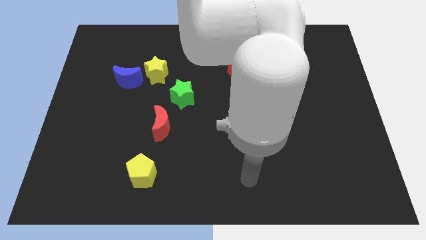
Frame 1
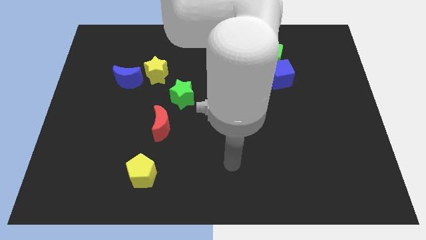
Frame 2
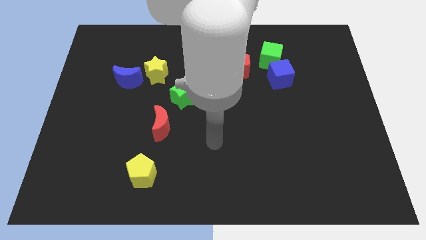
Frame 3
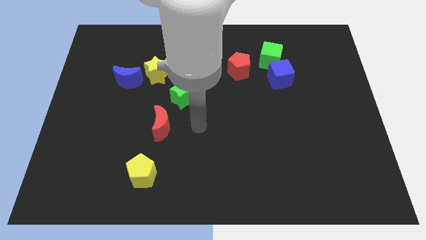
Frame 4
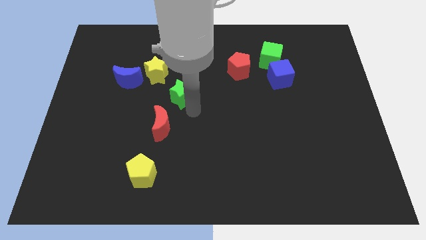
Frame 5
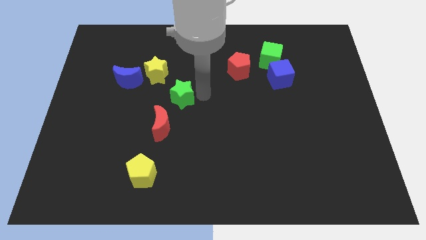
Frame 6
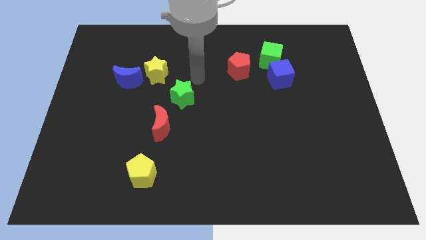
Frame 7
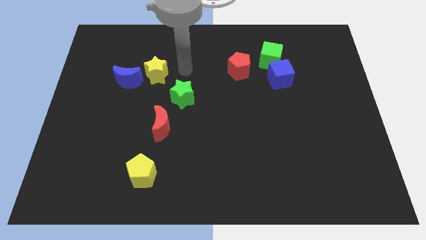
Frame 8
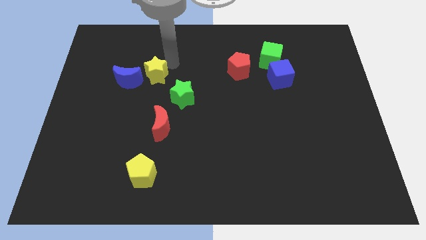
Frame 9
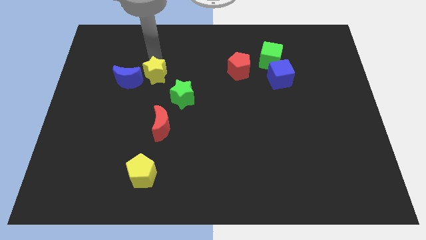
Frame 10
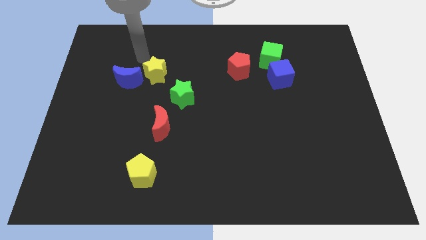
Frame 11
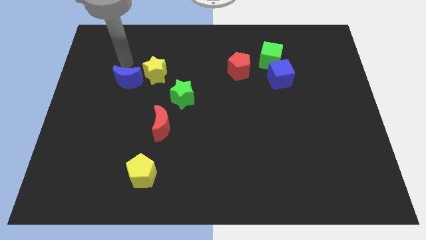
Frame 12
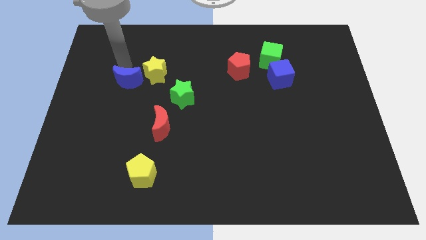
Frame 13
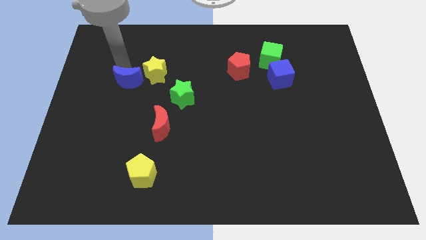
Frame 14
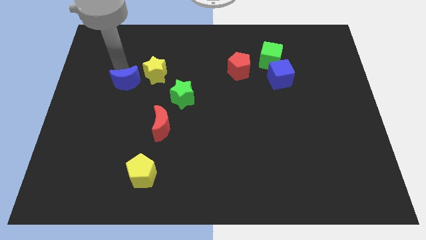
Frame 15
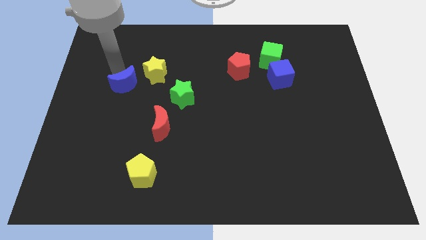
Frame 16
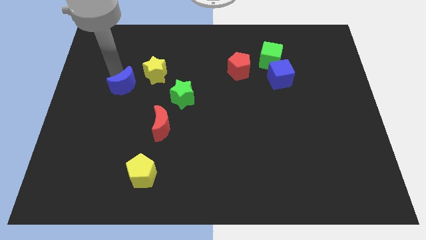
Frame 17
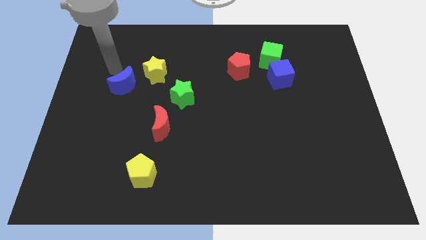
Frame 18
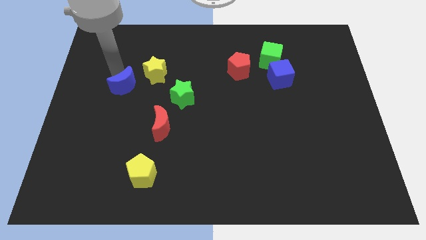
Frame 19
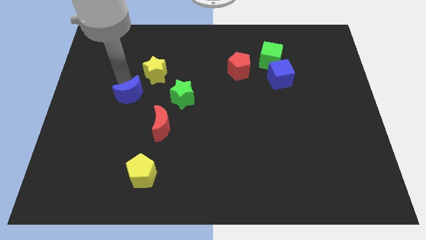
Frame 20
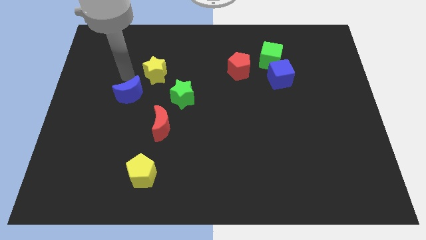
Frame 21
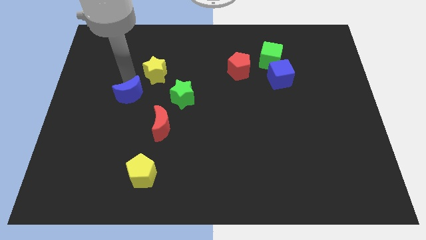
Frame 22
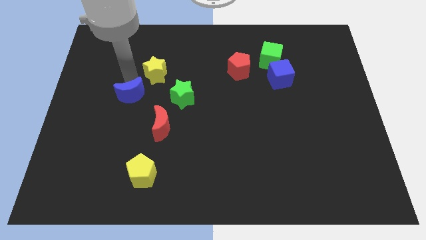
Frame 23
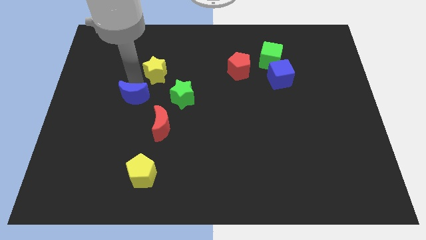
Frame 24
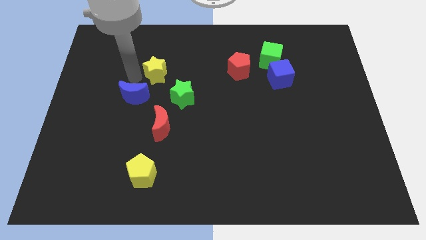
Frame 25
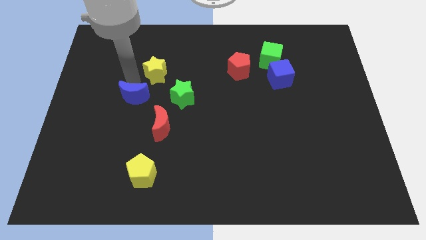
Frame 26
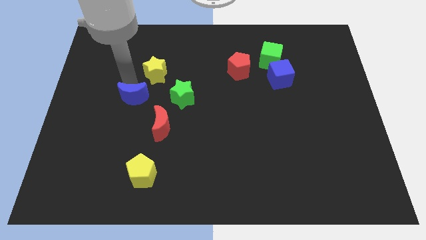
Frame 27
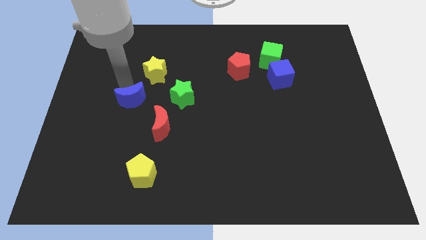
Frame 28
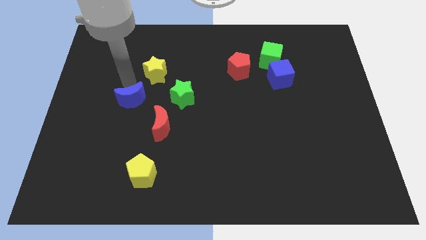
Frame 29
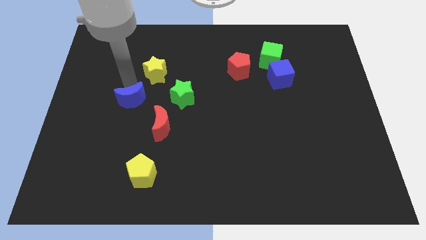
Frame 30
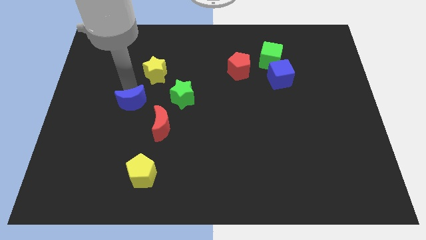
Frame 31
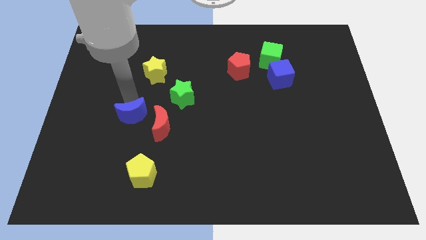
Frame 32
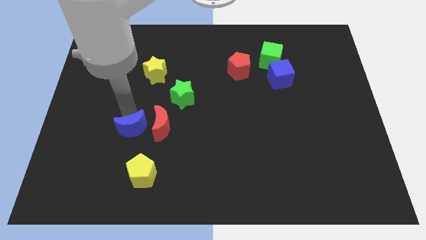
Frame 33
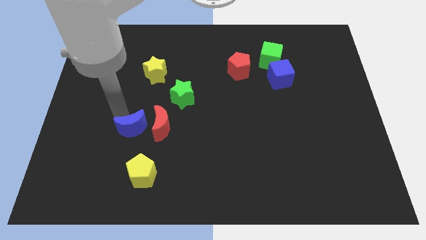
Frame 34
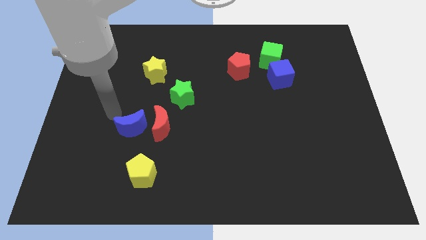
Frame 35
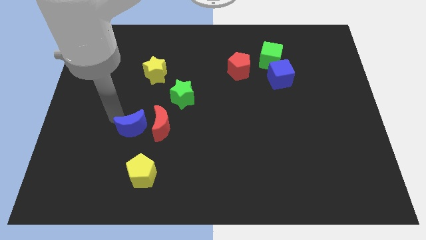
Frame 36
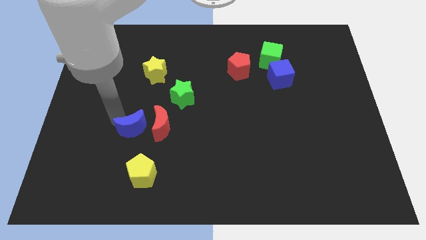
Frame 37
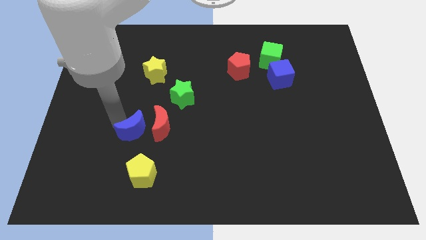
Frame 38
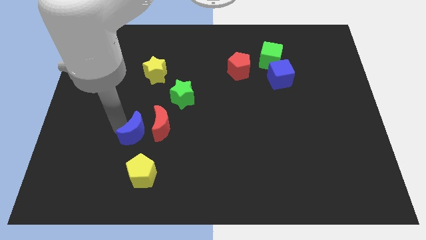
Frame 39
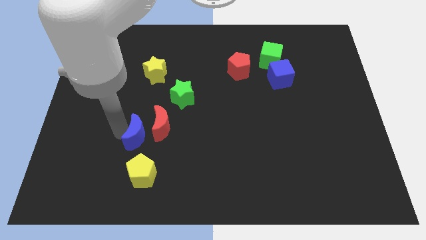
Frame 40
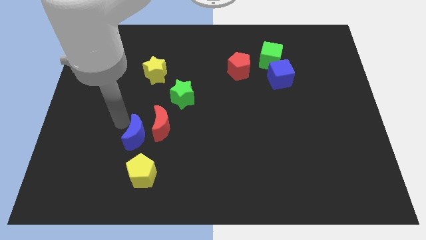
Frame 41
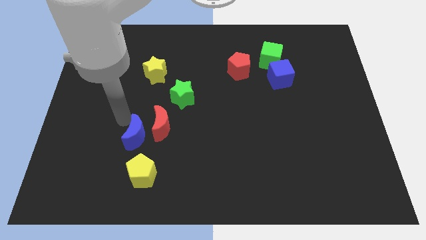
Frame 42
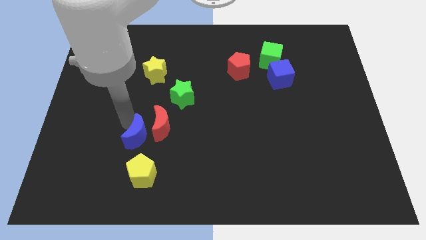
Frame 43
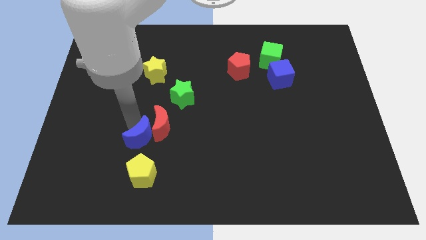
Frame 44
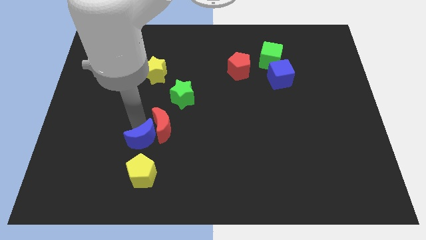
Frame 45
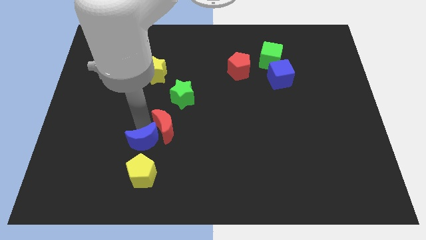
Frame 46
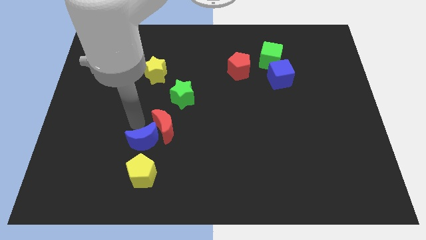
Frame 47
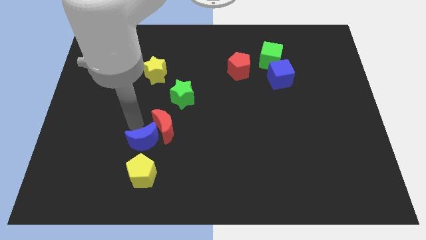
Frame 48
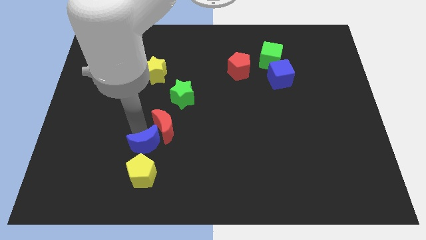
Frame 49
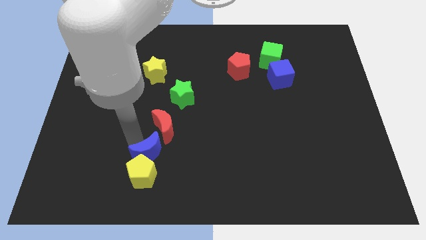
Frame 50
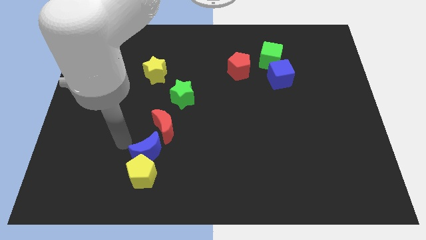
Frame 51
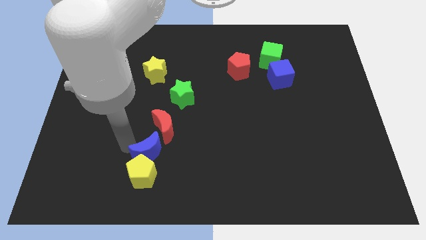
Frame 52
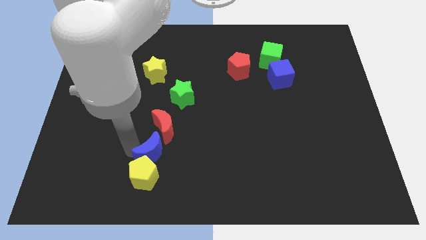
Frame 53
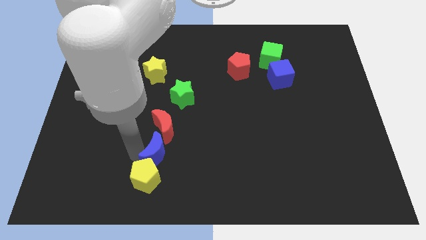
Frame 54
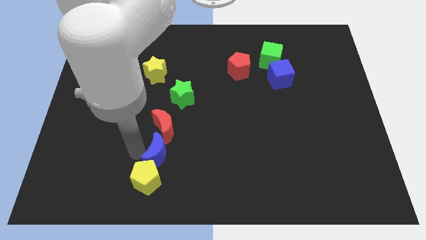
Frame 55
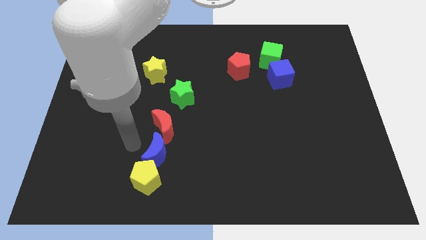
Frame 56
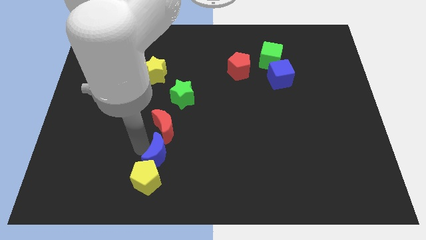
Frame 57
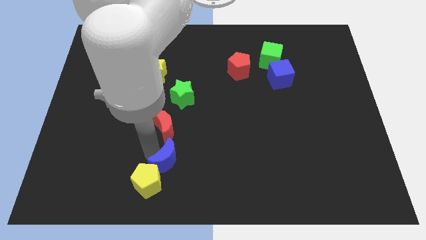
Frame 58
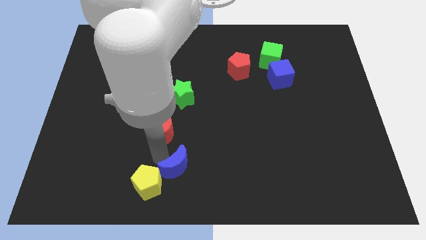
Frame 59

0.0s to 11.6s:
move the blue moon to the right of the yellow pentagon

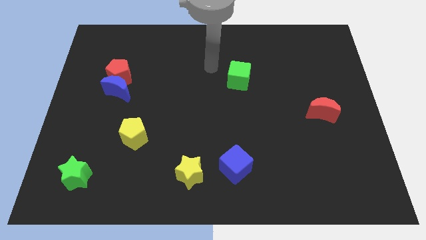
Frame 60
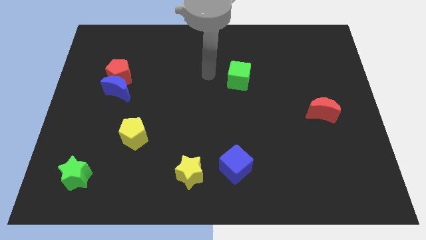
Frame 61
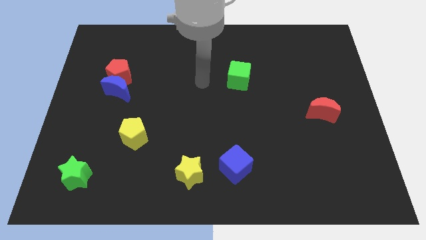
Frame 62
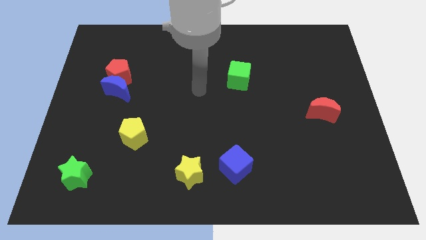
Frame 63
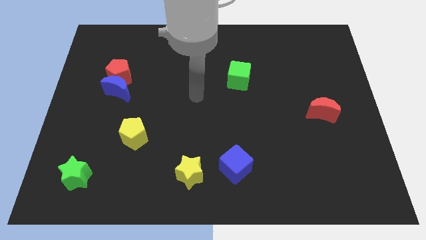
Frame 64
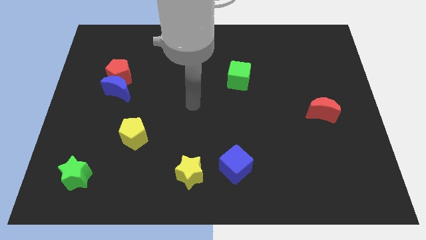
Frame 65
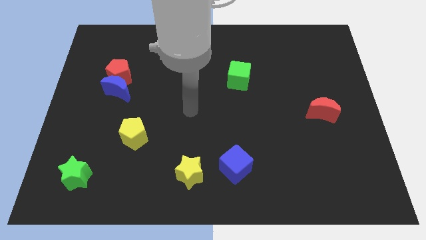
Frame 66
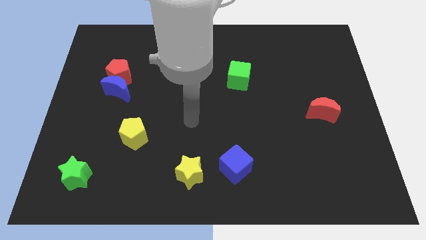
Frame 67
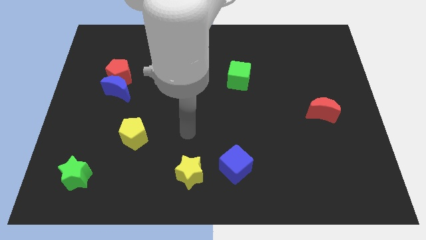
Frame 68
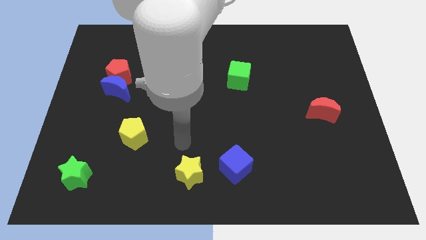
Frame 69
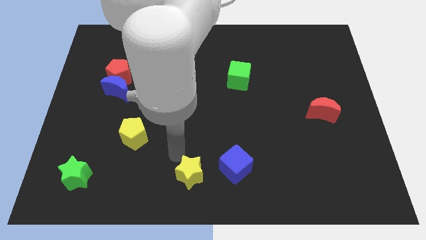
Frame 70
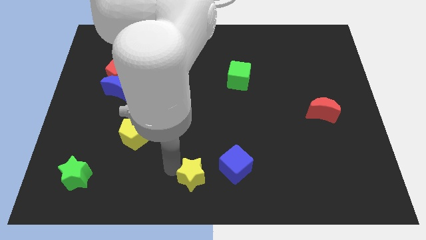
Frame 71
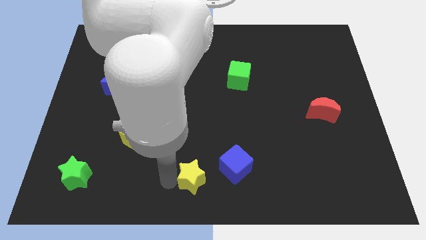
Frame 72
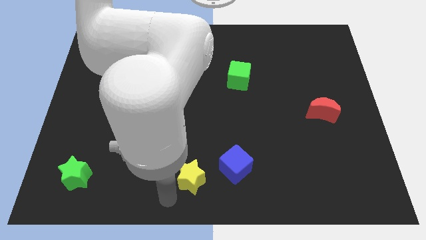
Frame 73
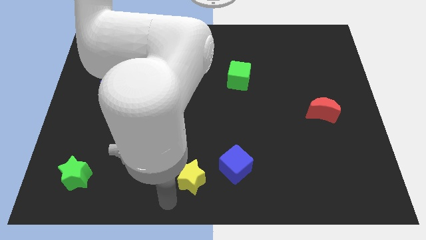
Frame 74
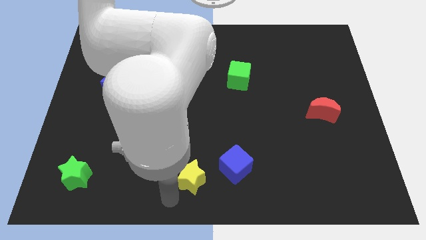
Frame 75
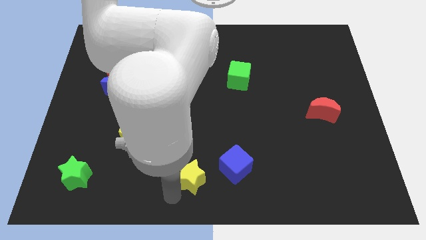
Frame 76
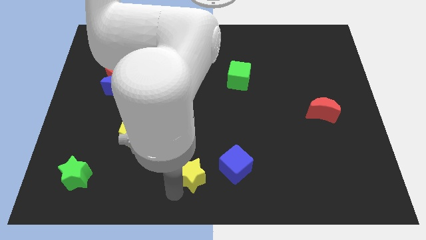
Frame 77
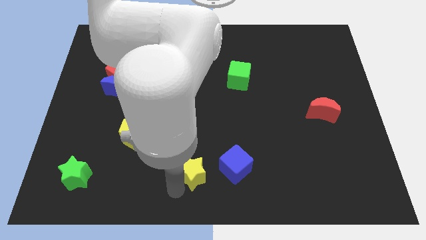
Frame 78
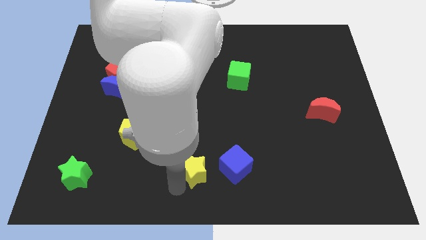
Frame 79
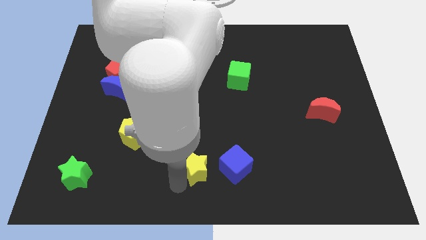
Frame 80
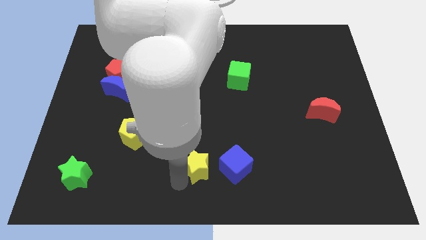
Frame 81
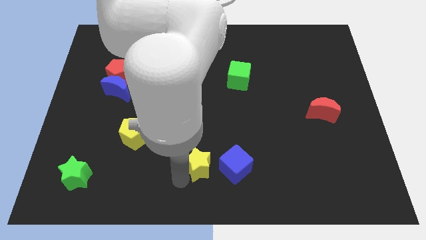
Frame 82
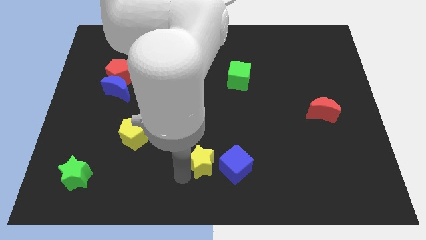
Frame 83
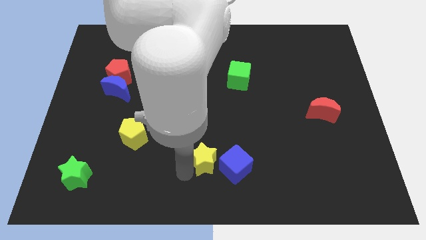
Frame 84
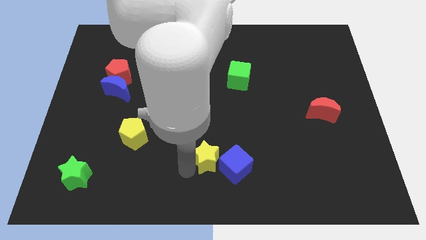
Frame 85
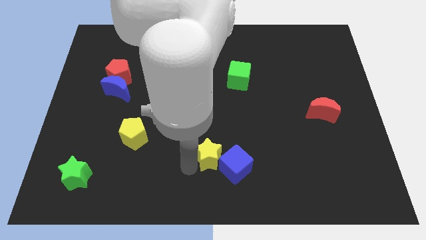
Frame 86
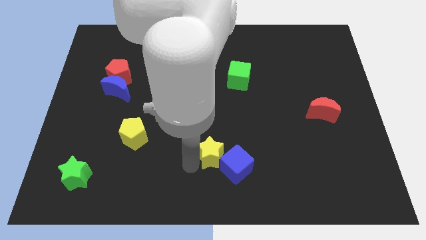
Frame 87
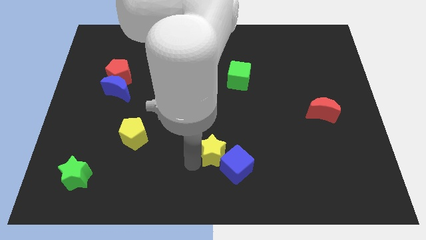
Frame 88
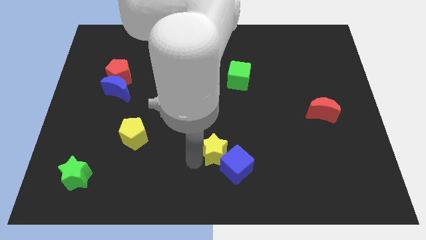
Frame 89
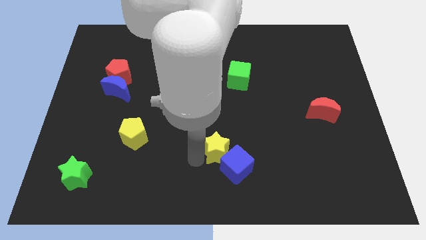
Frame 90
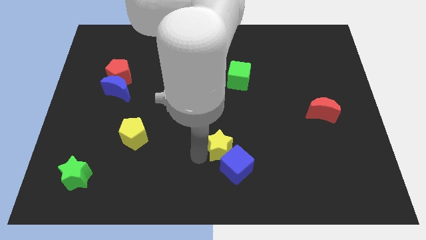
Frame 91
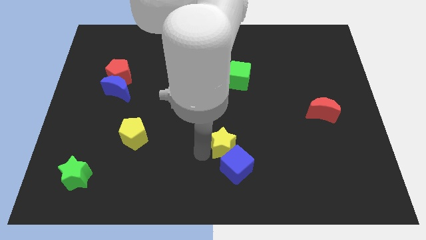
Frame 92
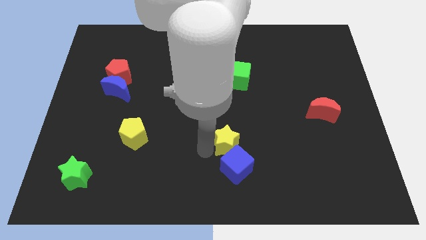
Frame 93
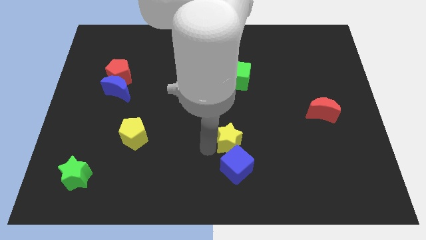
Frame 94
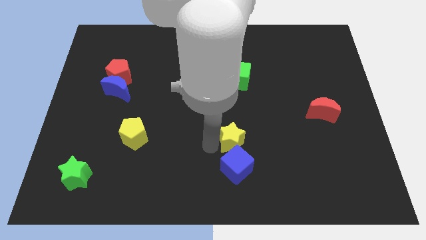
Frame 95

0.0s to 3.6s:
push the yellow star diagonally up and to the right of the blue cube
